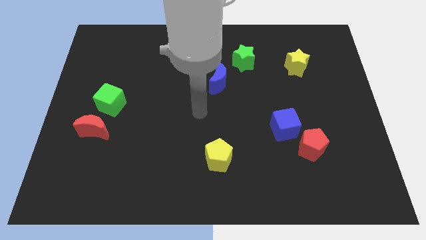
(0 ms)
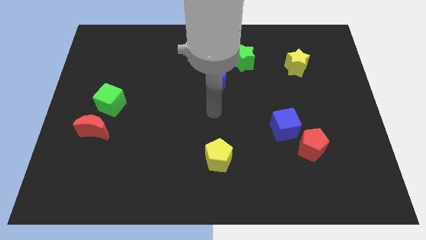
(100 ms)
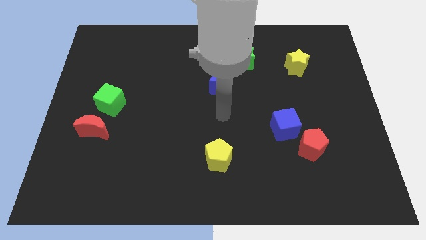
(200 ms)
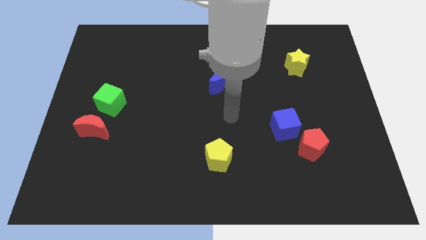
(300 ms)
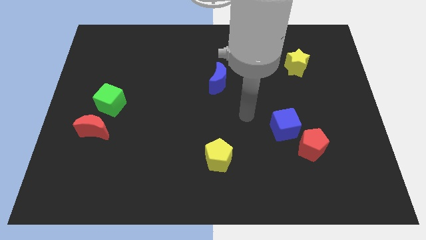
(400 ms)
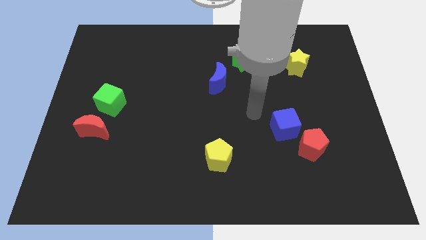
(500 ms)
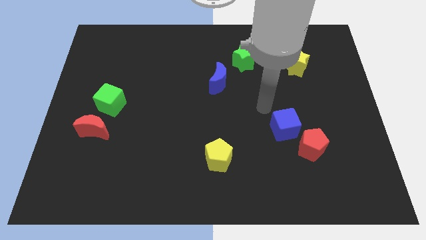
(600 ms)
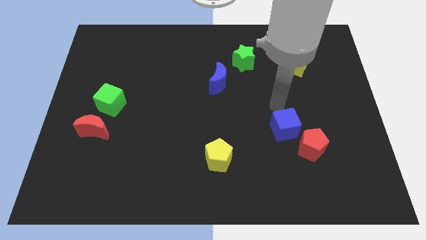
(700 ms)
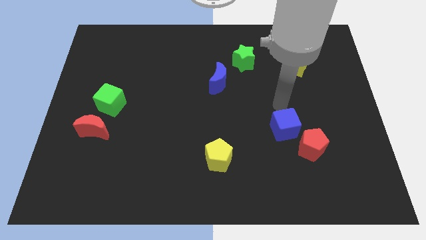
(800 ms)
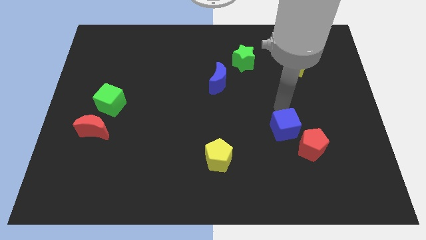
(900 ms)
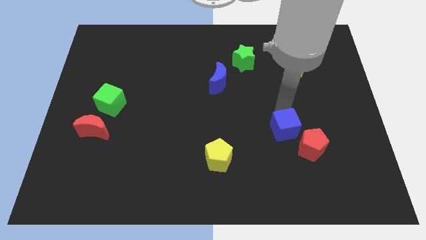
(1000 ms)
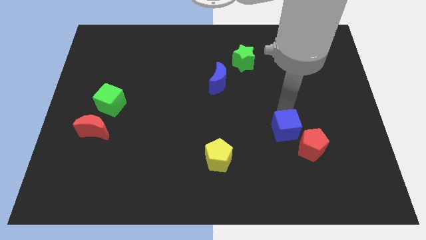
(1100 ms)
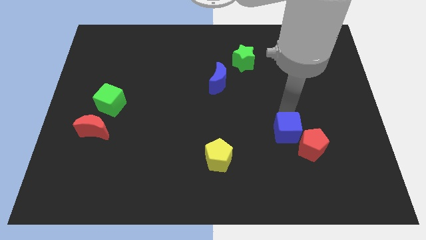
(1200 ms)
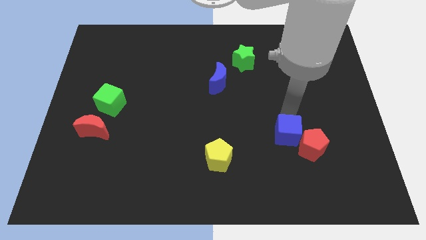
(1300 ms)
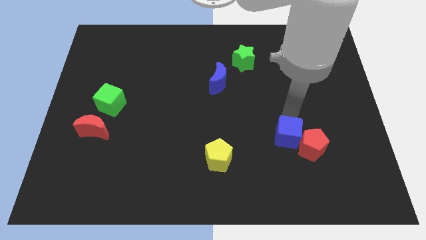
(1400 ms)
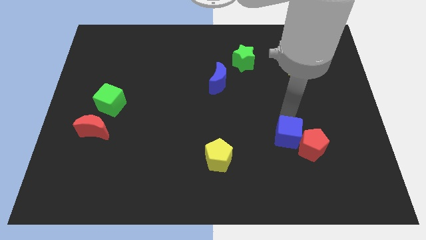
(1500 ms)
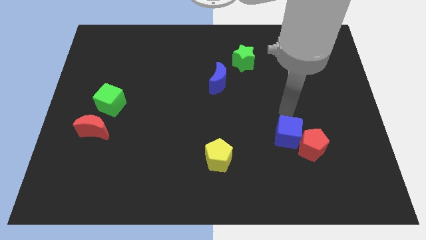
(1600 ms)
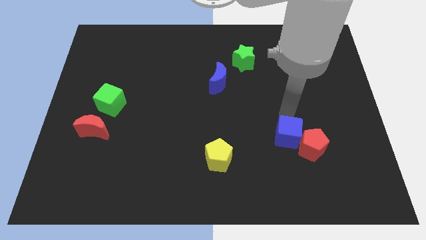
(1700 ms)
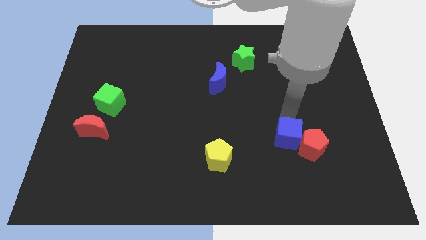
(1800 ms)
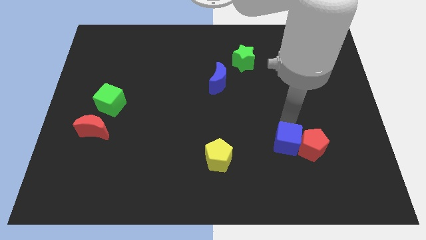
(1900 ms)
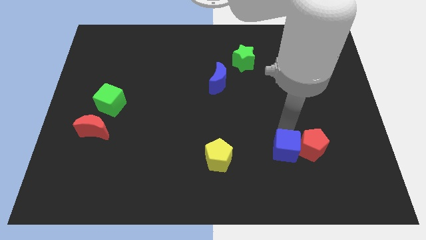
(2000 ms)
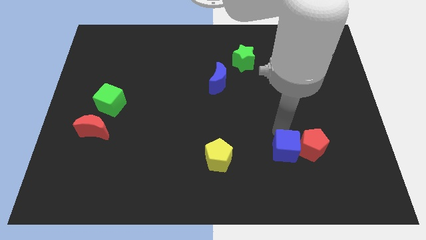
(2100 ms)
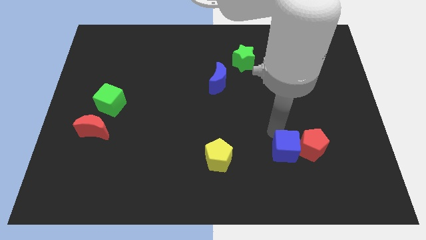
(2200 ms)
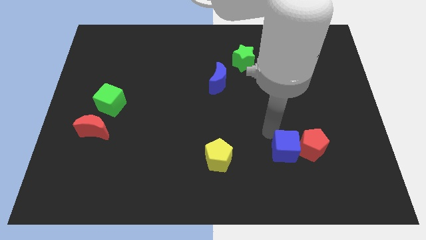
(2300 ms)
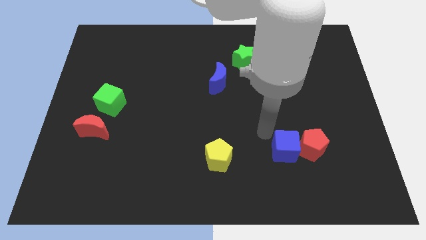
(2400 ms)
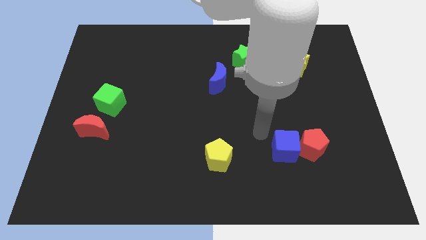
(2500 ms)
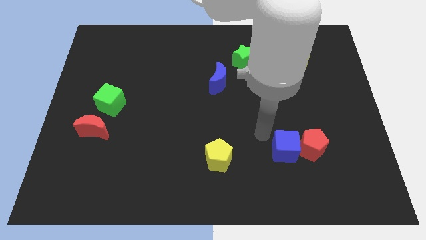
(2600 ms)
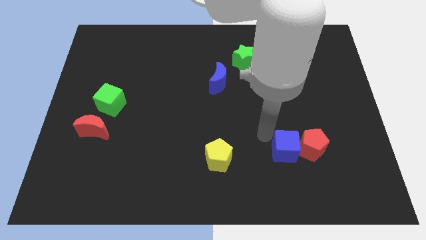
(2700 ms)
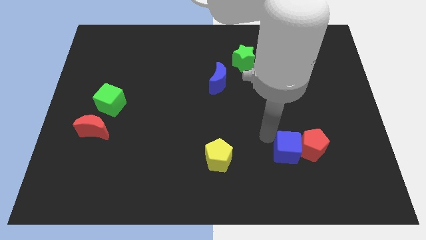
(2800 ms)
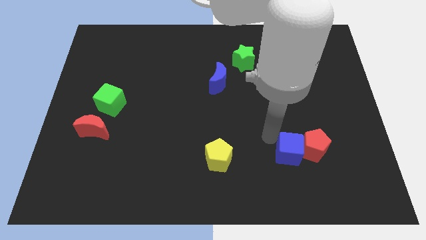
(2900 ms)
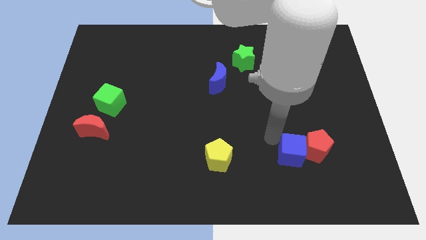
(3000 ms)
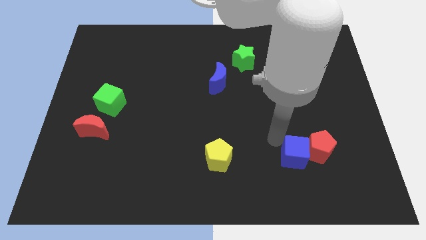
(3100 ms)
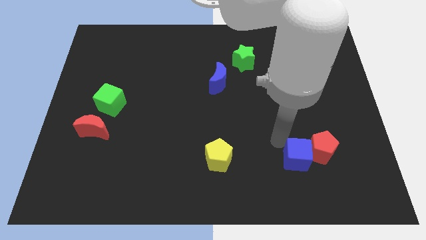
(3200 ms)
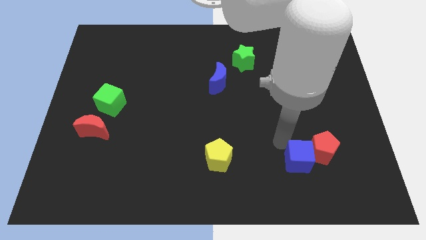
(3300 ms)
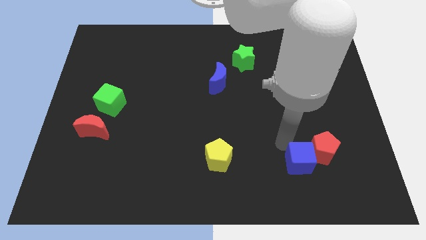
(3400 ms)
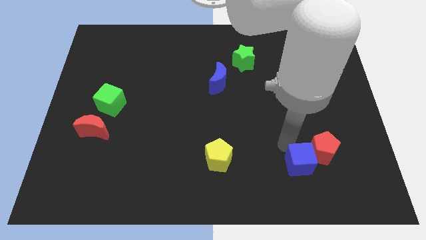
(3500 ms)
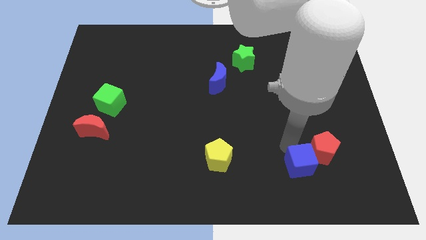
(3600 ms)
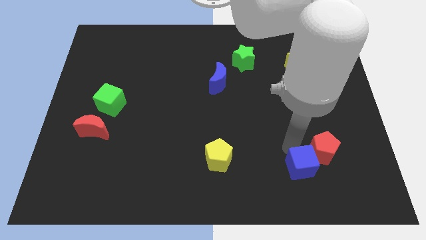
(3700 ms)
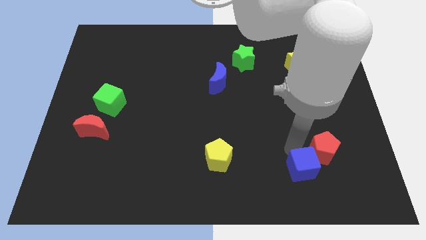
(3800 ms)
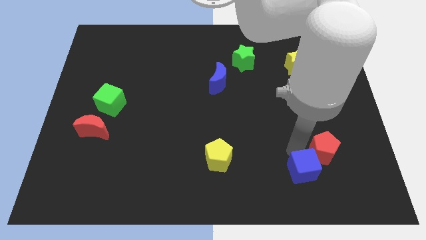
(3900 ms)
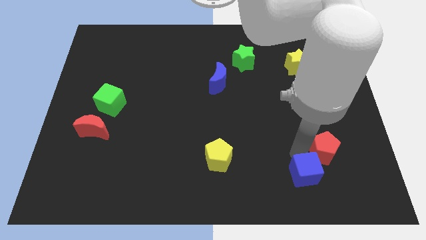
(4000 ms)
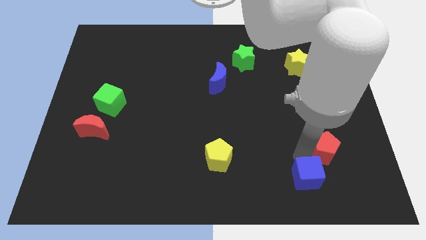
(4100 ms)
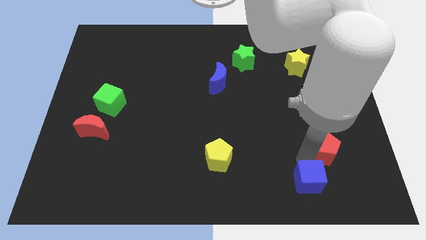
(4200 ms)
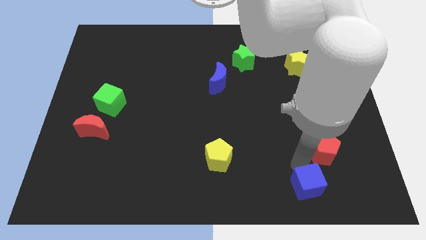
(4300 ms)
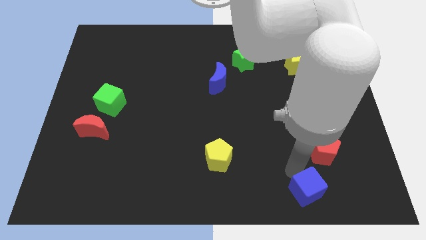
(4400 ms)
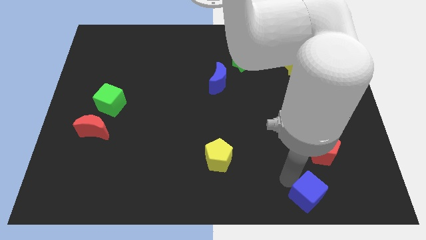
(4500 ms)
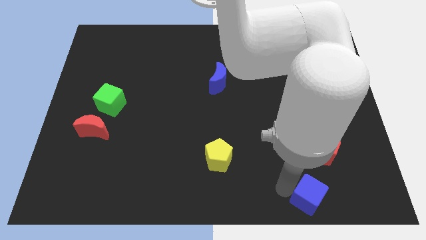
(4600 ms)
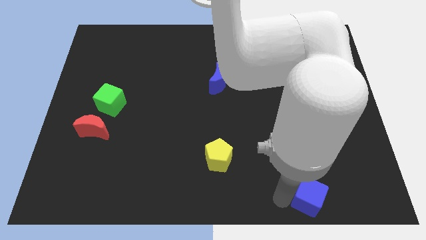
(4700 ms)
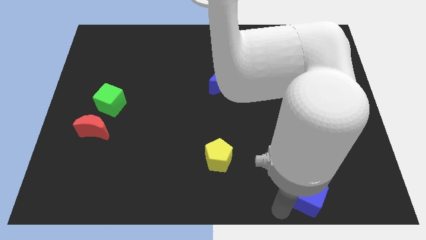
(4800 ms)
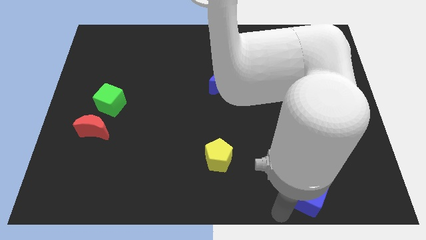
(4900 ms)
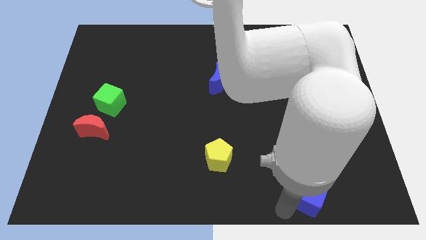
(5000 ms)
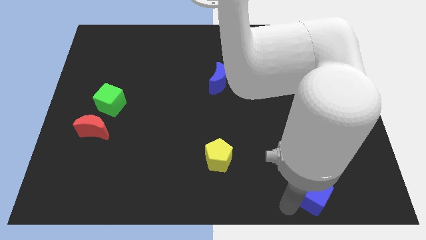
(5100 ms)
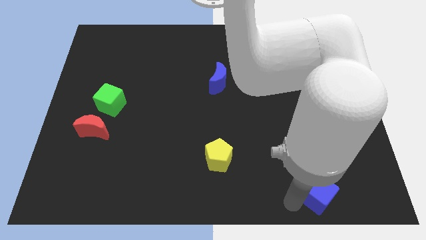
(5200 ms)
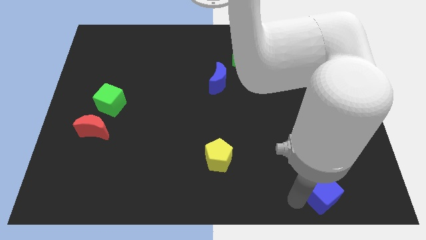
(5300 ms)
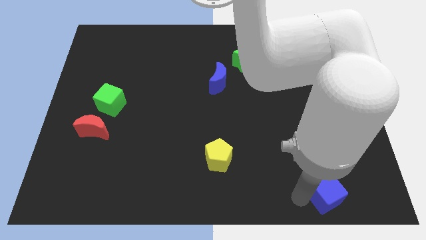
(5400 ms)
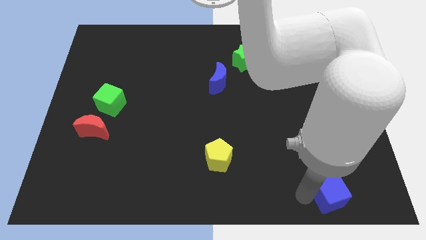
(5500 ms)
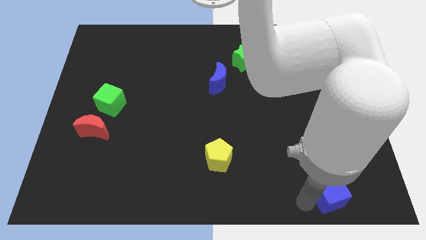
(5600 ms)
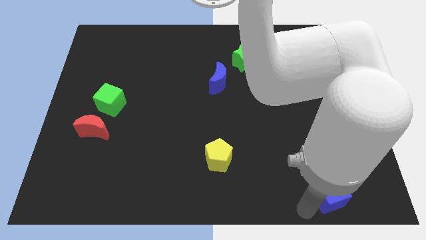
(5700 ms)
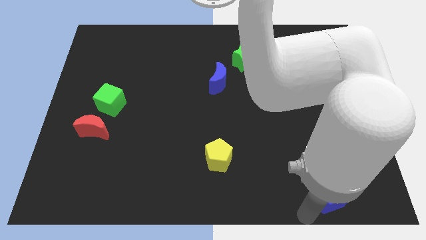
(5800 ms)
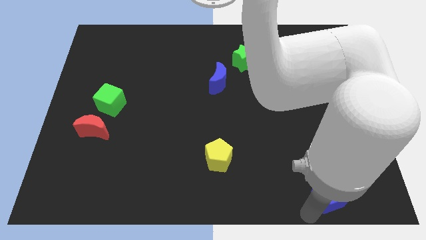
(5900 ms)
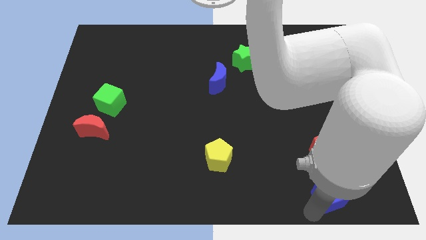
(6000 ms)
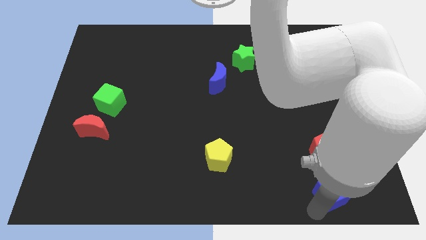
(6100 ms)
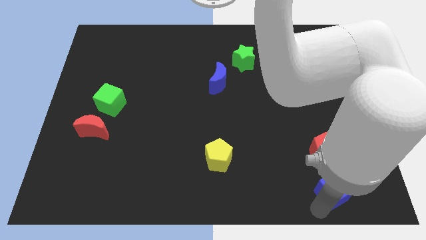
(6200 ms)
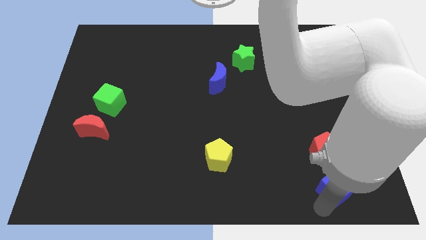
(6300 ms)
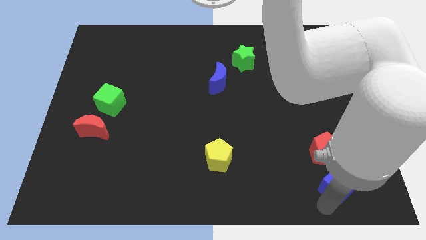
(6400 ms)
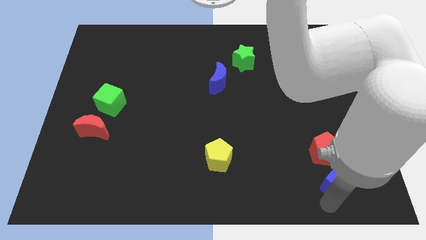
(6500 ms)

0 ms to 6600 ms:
slide the blue cube diagonally down and to the right of the red pentagon
